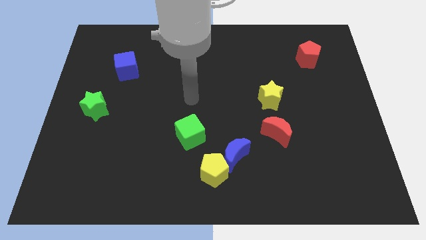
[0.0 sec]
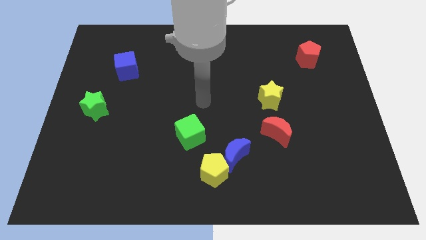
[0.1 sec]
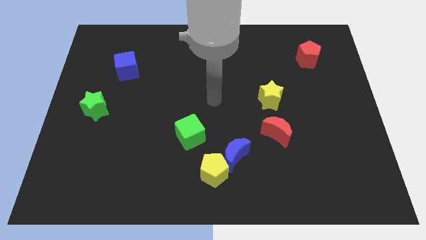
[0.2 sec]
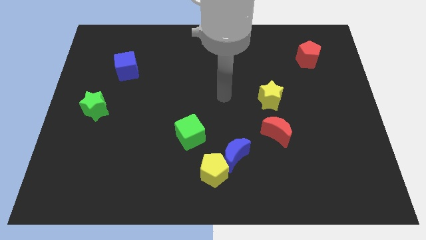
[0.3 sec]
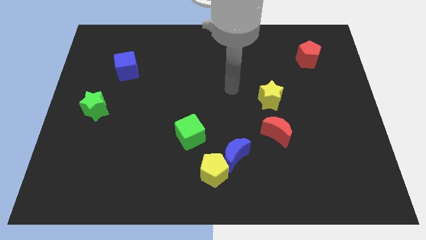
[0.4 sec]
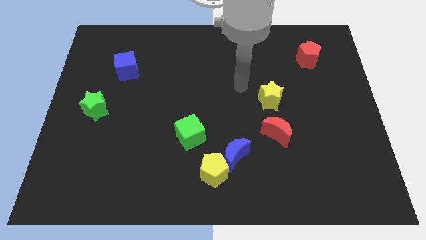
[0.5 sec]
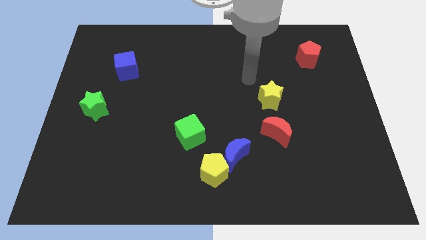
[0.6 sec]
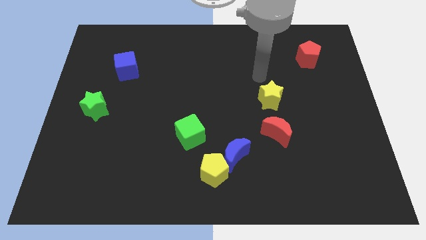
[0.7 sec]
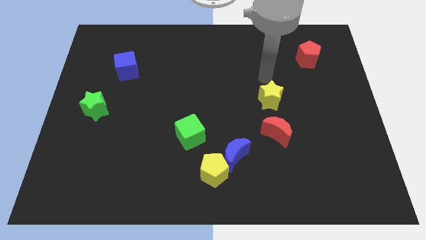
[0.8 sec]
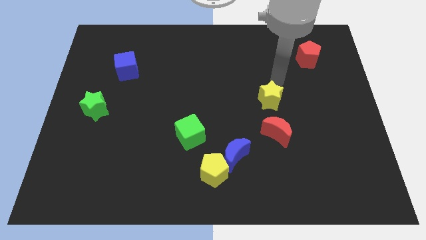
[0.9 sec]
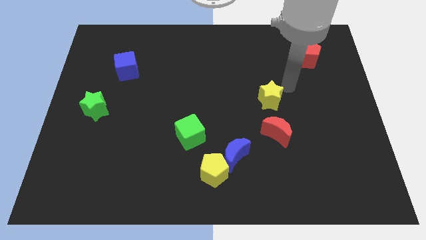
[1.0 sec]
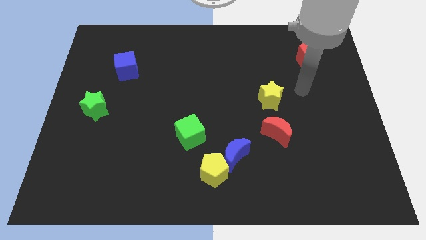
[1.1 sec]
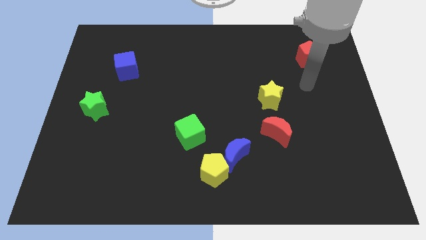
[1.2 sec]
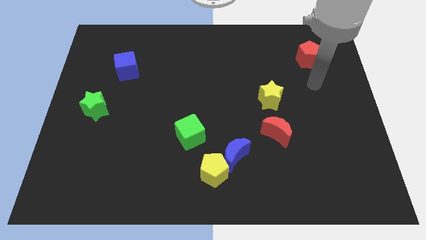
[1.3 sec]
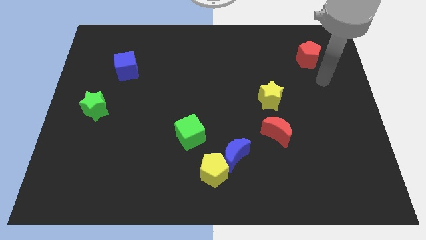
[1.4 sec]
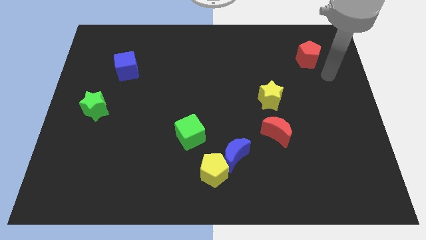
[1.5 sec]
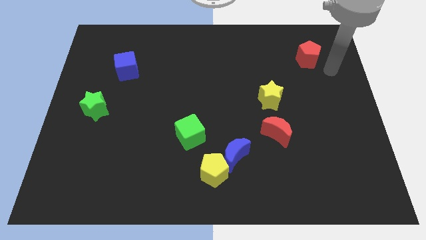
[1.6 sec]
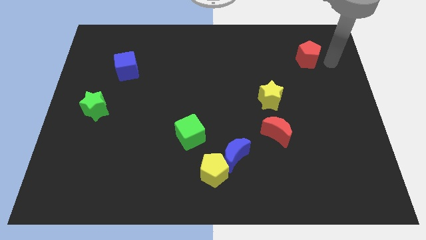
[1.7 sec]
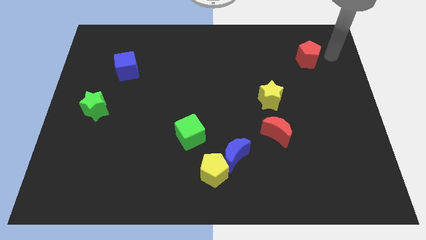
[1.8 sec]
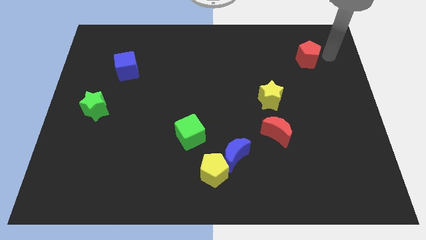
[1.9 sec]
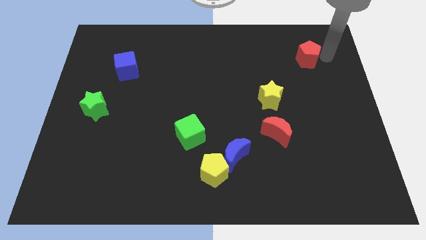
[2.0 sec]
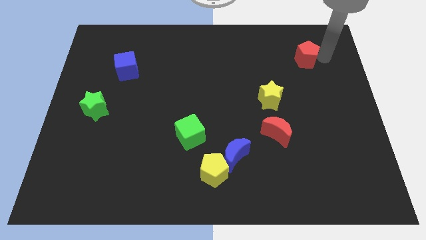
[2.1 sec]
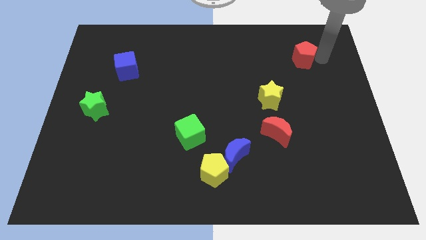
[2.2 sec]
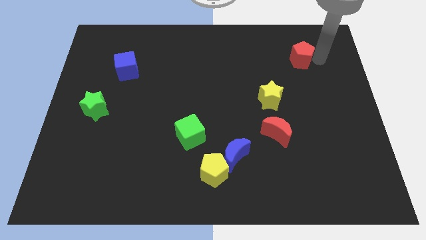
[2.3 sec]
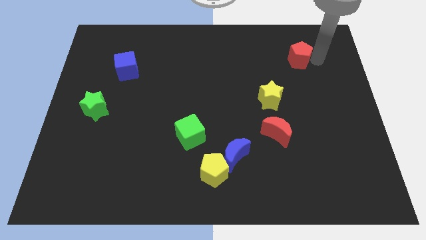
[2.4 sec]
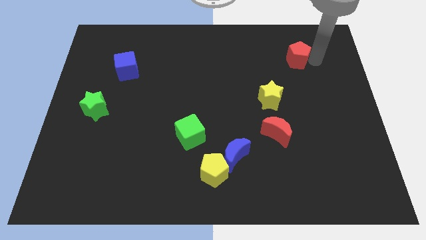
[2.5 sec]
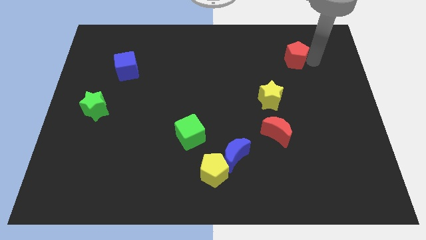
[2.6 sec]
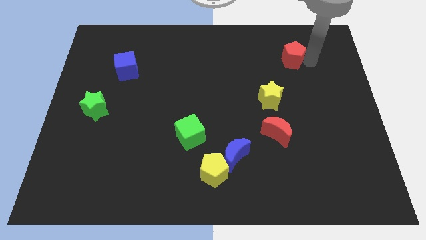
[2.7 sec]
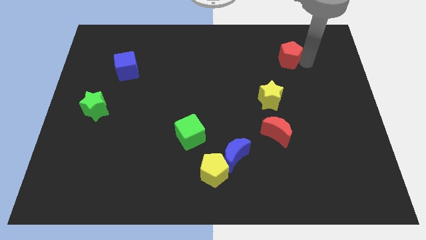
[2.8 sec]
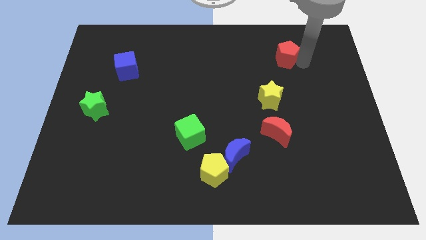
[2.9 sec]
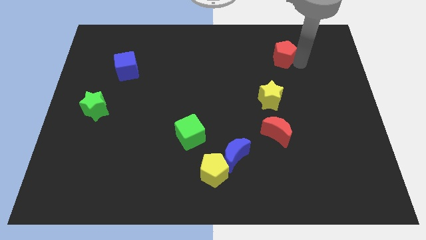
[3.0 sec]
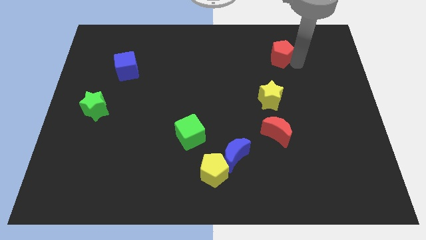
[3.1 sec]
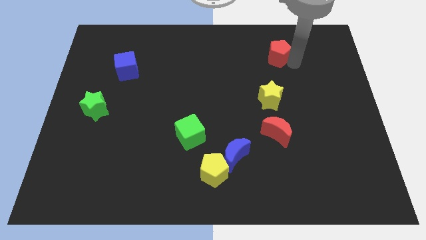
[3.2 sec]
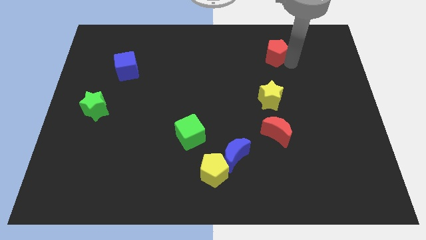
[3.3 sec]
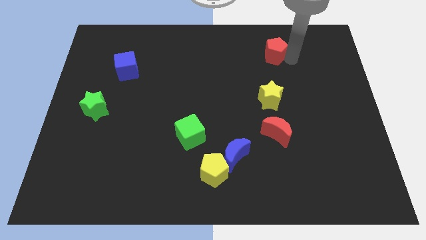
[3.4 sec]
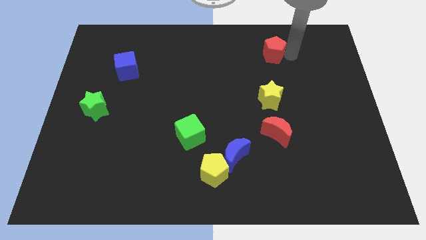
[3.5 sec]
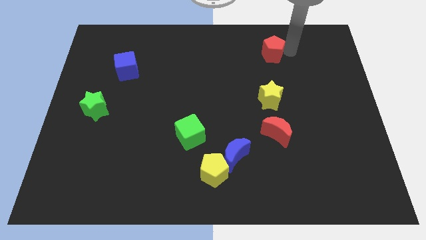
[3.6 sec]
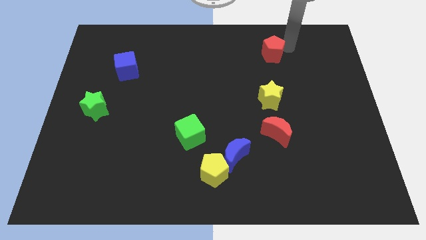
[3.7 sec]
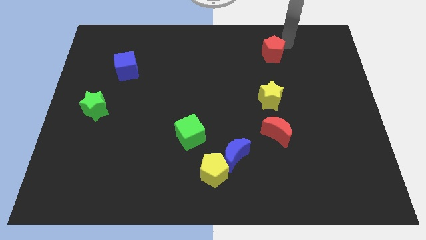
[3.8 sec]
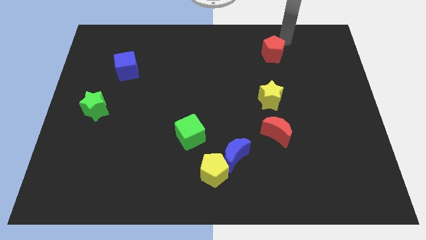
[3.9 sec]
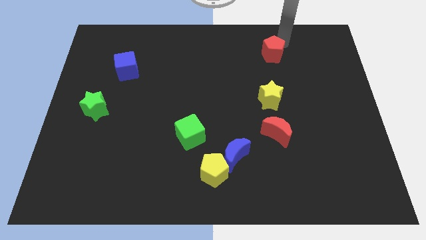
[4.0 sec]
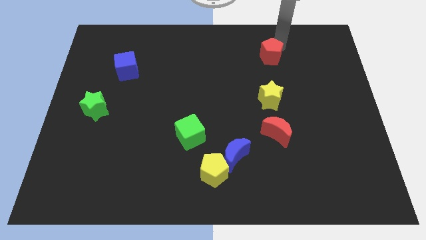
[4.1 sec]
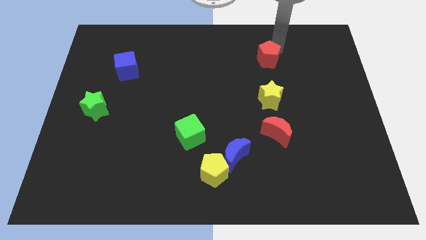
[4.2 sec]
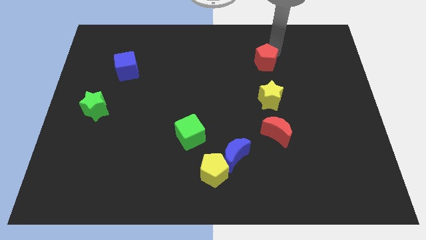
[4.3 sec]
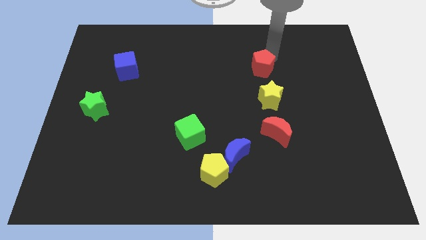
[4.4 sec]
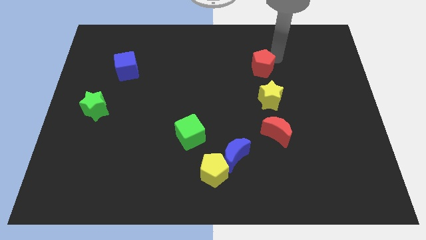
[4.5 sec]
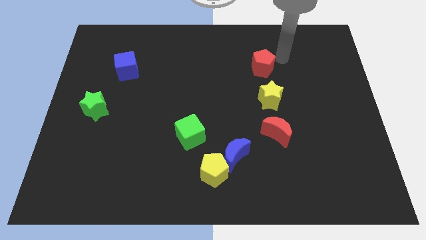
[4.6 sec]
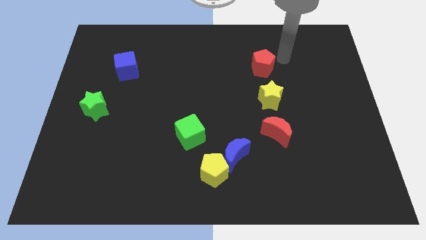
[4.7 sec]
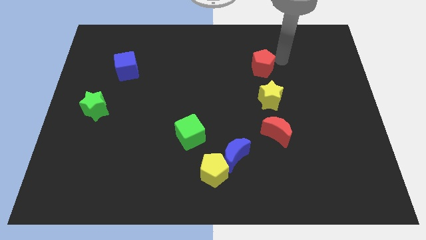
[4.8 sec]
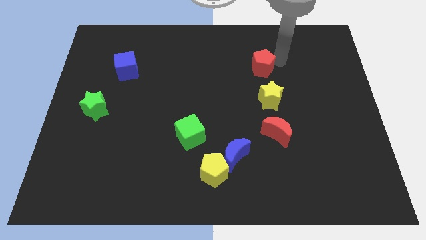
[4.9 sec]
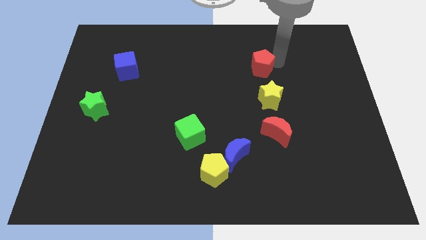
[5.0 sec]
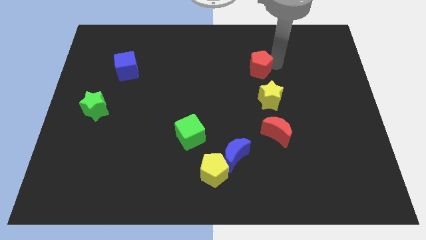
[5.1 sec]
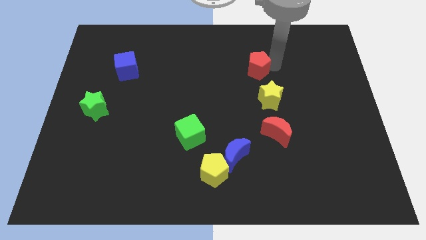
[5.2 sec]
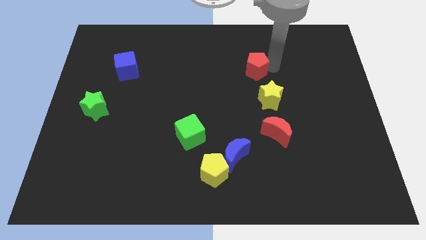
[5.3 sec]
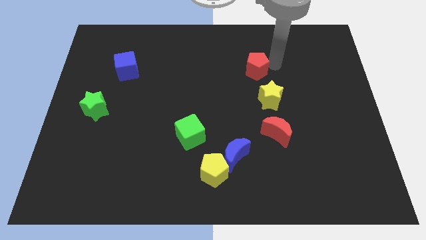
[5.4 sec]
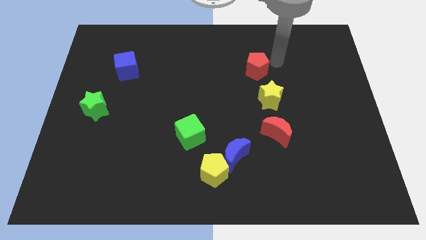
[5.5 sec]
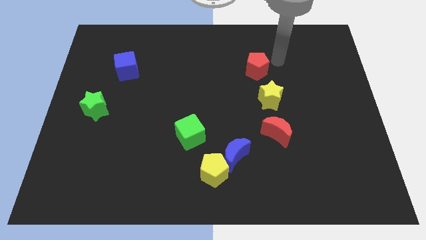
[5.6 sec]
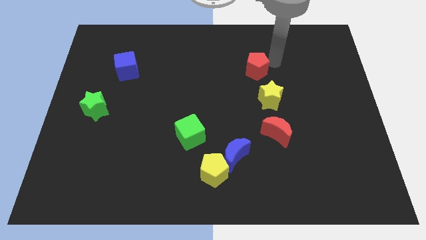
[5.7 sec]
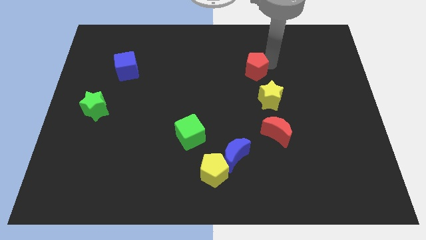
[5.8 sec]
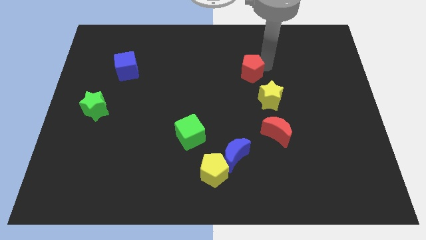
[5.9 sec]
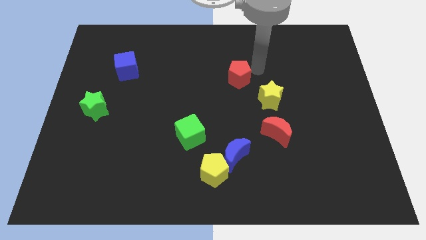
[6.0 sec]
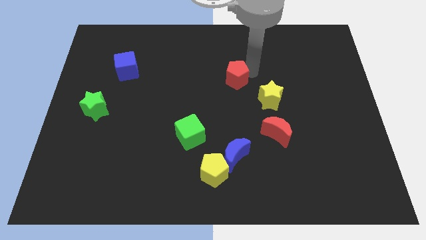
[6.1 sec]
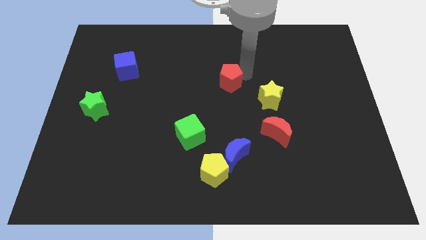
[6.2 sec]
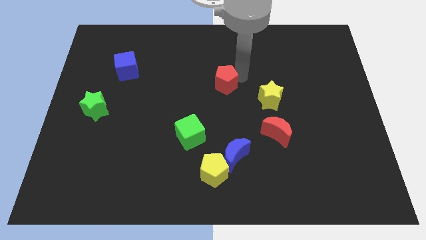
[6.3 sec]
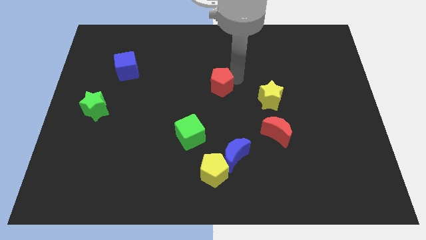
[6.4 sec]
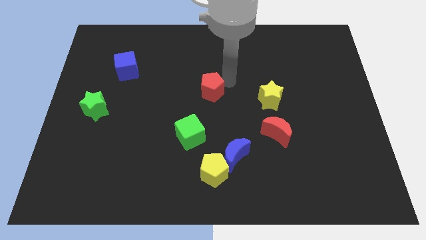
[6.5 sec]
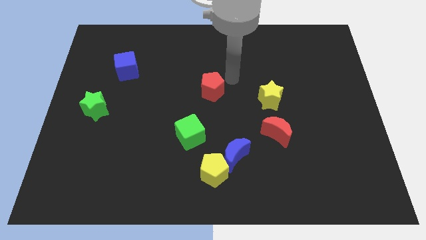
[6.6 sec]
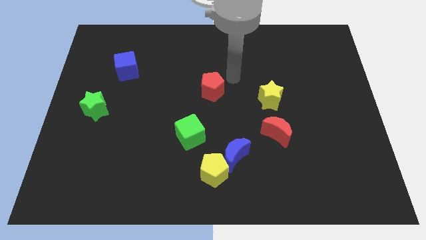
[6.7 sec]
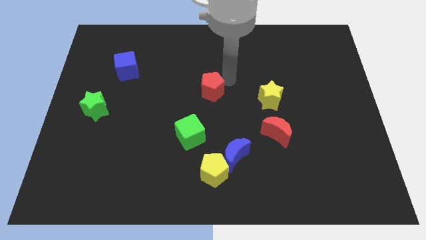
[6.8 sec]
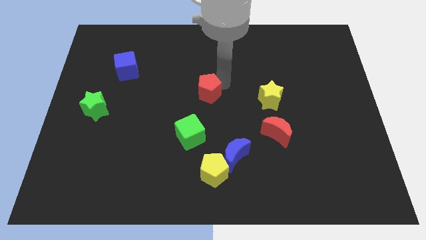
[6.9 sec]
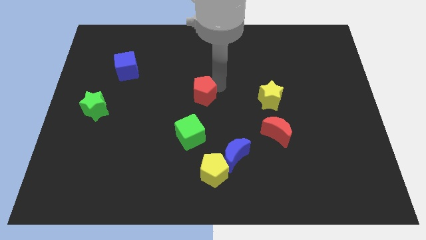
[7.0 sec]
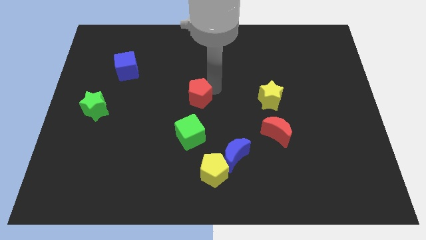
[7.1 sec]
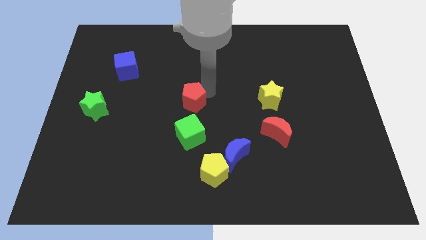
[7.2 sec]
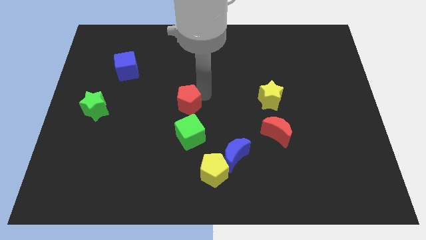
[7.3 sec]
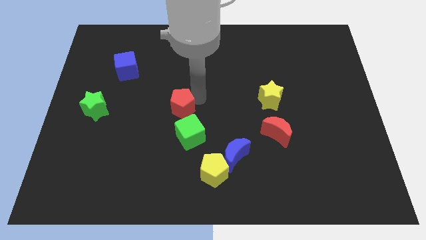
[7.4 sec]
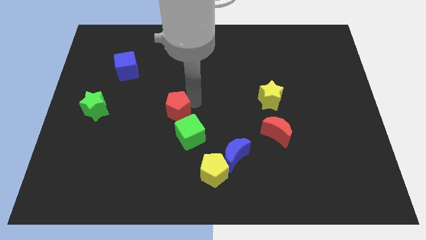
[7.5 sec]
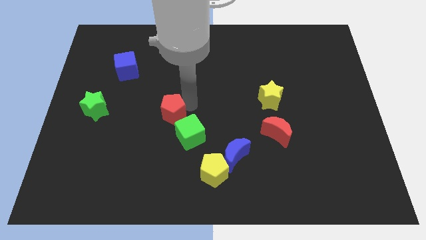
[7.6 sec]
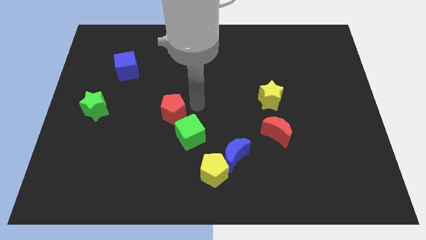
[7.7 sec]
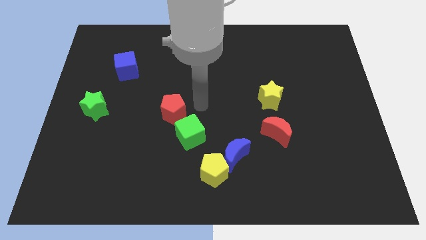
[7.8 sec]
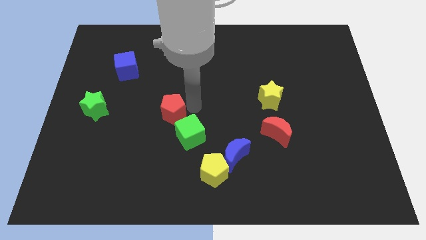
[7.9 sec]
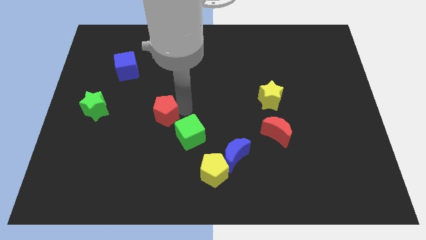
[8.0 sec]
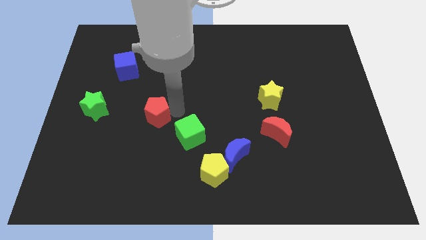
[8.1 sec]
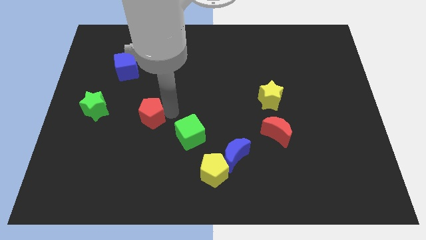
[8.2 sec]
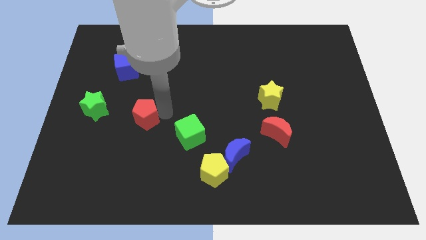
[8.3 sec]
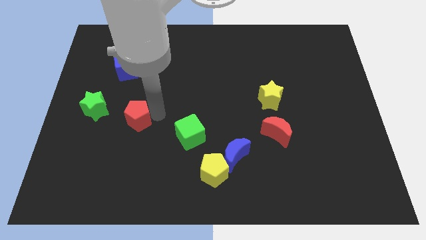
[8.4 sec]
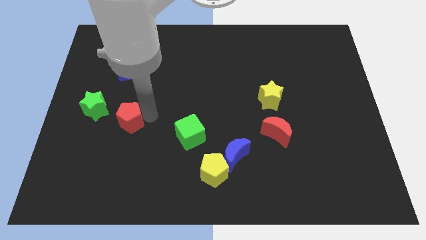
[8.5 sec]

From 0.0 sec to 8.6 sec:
slide the red pentagon to the bottom right of the green star
